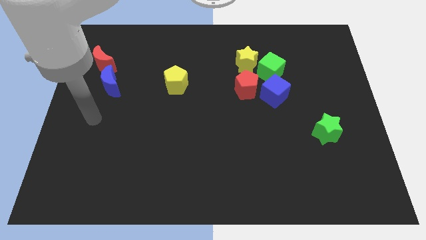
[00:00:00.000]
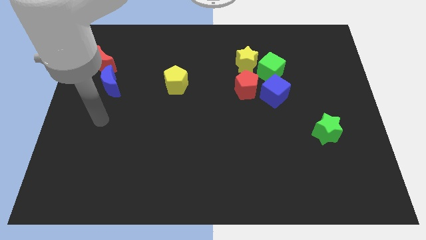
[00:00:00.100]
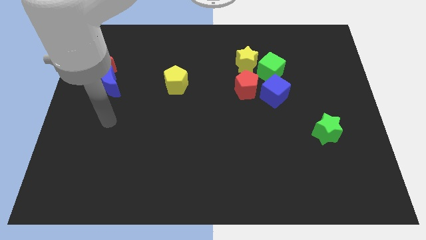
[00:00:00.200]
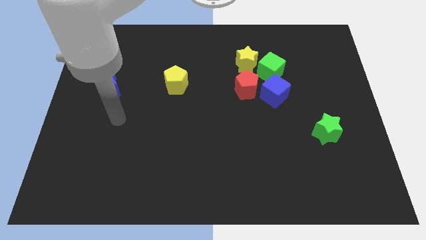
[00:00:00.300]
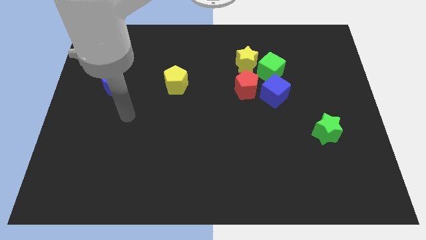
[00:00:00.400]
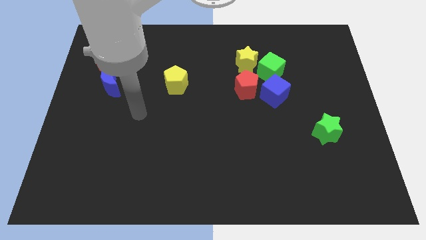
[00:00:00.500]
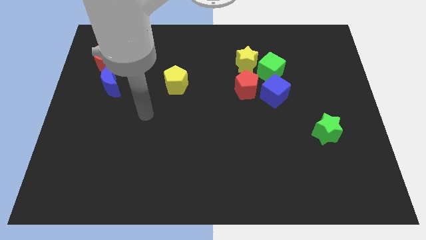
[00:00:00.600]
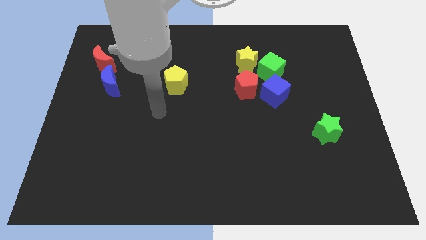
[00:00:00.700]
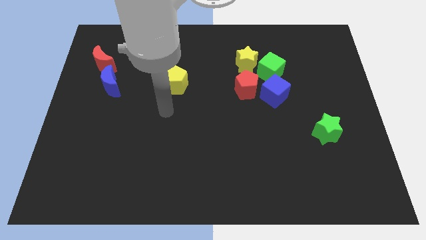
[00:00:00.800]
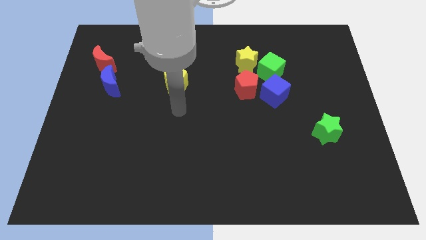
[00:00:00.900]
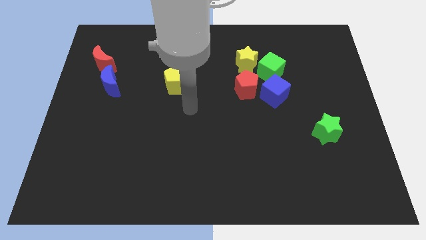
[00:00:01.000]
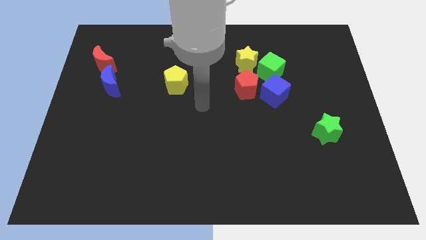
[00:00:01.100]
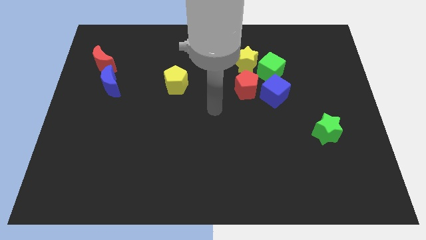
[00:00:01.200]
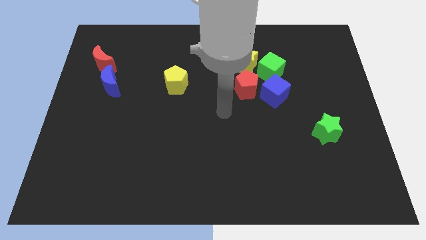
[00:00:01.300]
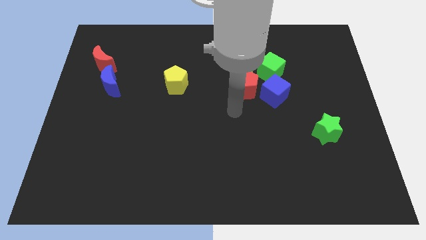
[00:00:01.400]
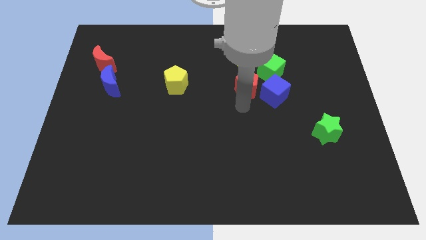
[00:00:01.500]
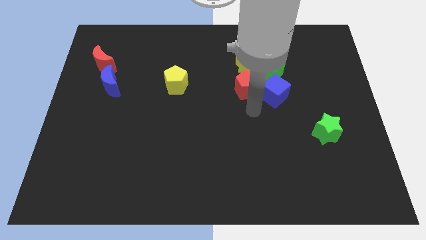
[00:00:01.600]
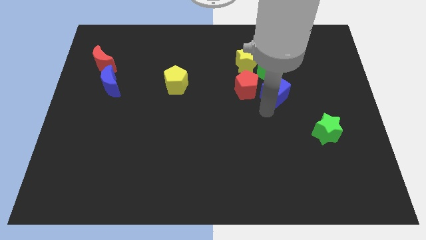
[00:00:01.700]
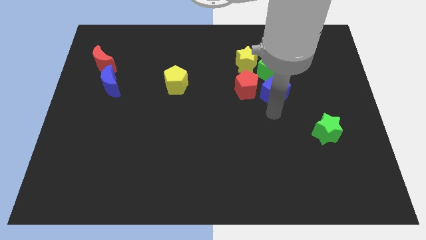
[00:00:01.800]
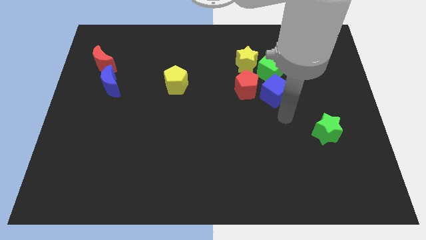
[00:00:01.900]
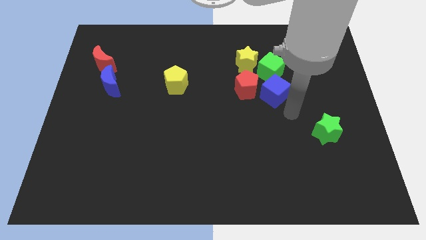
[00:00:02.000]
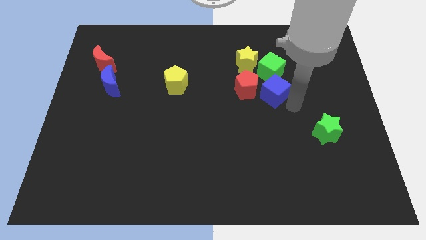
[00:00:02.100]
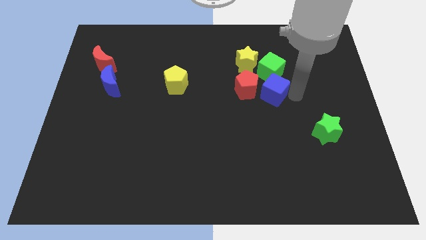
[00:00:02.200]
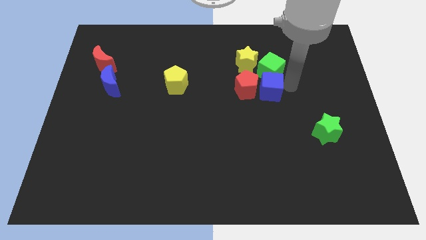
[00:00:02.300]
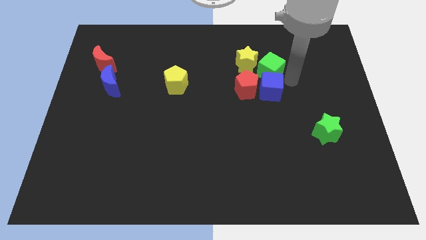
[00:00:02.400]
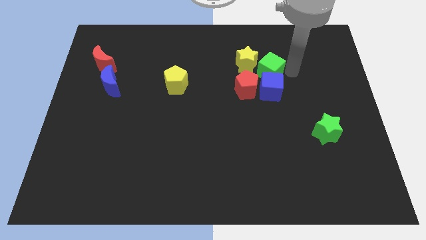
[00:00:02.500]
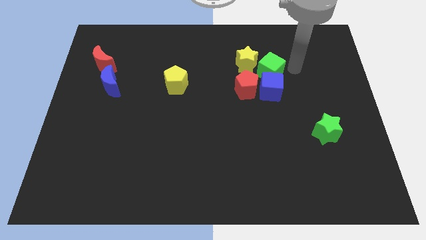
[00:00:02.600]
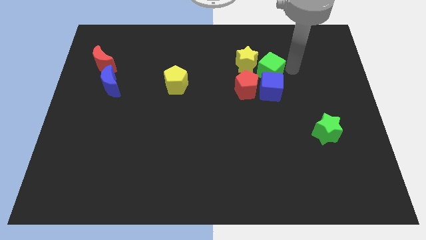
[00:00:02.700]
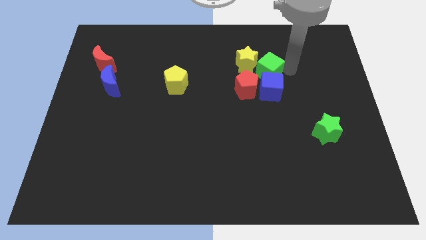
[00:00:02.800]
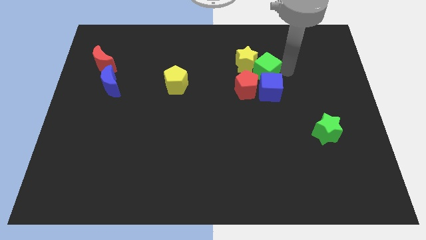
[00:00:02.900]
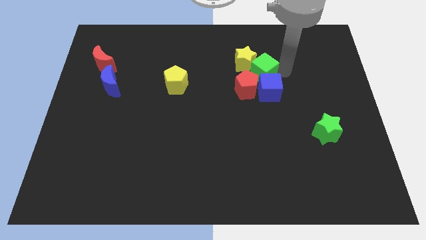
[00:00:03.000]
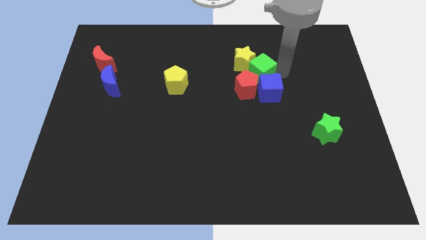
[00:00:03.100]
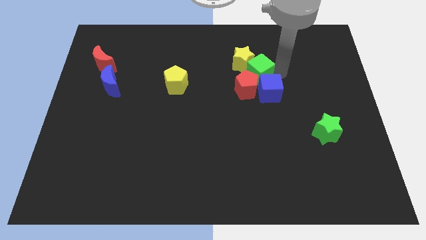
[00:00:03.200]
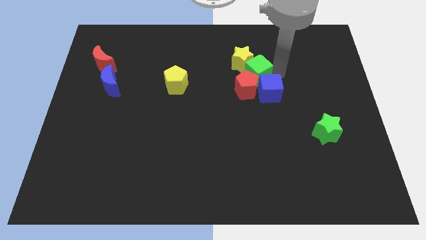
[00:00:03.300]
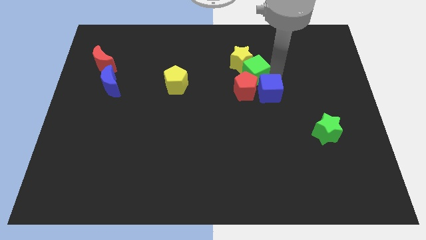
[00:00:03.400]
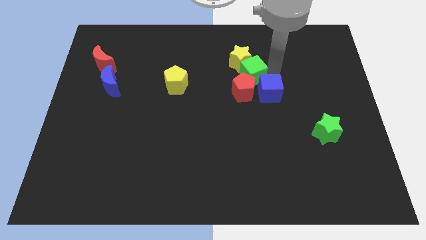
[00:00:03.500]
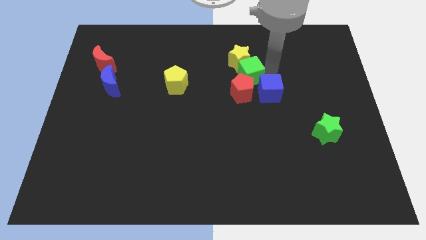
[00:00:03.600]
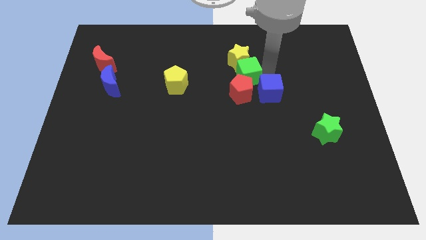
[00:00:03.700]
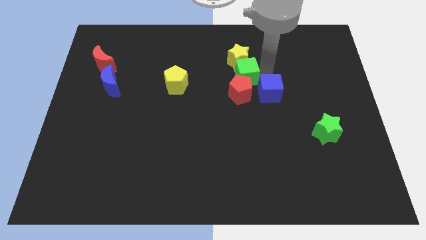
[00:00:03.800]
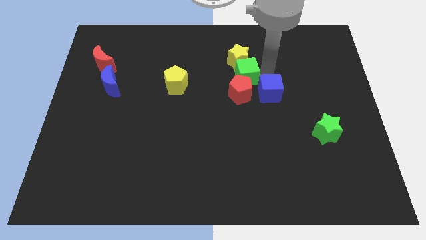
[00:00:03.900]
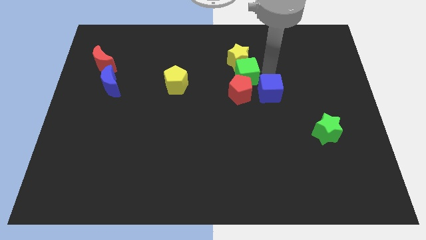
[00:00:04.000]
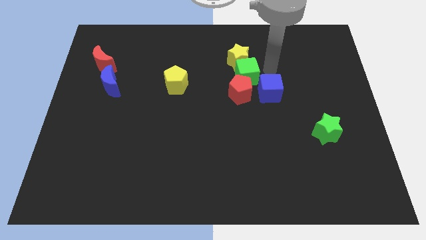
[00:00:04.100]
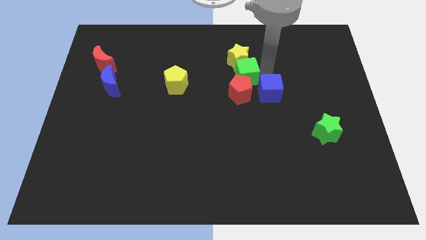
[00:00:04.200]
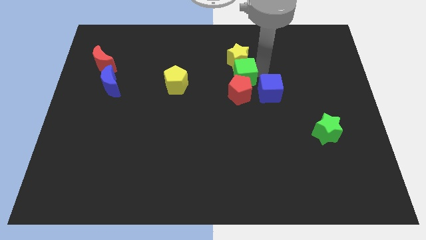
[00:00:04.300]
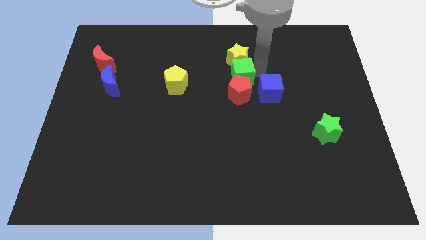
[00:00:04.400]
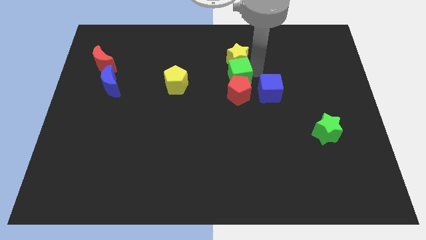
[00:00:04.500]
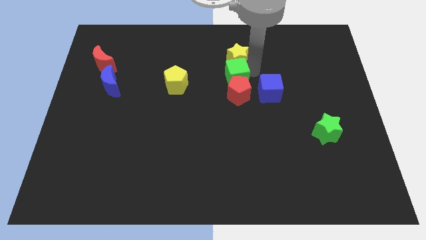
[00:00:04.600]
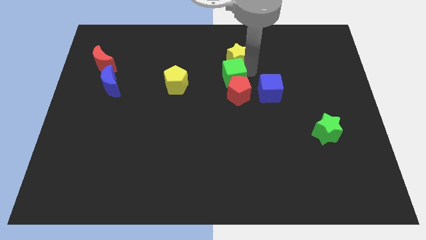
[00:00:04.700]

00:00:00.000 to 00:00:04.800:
move the green cube a little bit downwards and left diagonally

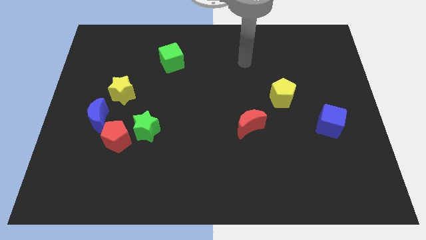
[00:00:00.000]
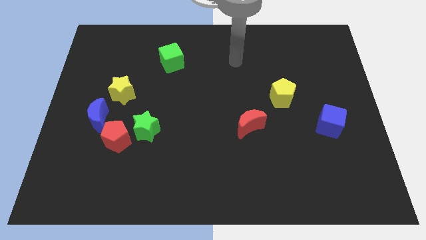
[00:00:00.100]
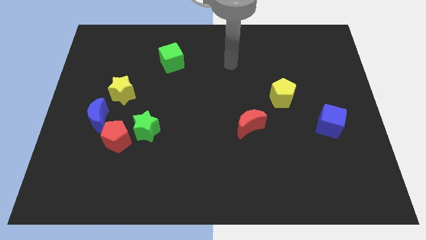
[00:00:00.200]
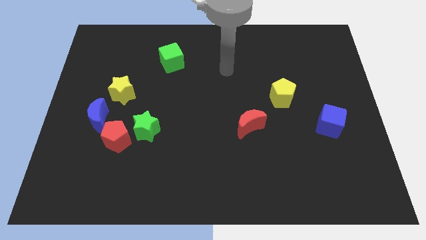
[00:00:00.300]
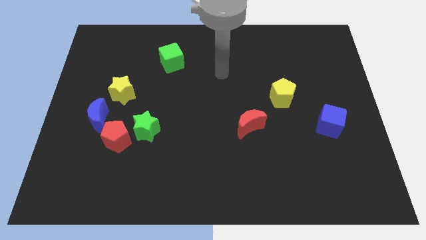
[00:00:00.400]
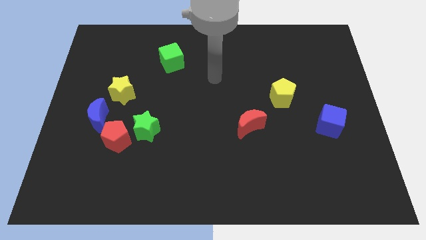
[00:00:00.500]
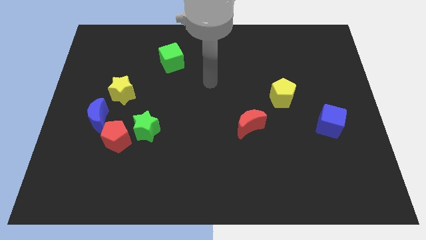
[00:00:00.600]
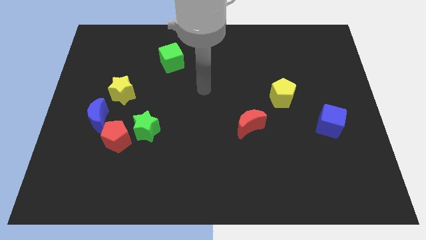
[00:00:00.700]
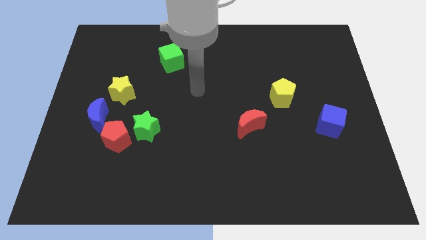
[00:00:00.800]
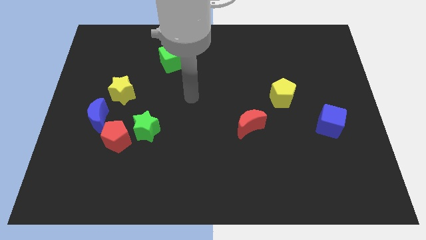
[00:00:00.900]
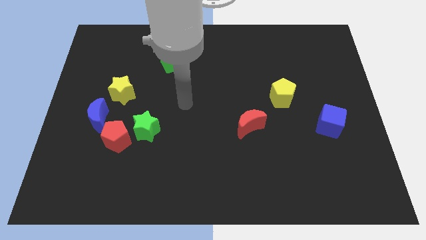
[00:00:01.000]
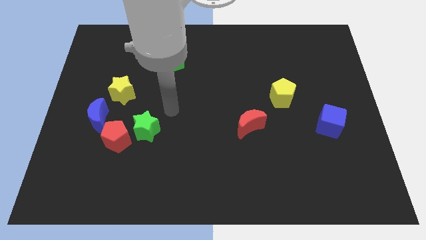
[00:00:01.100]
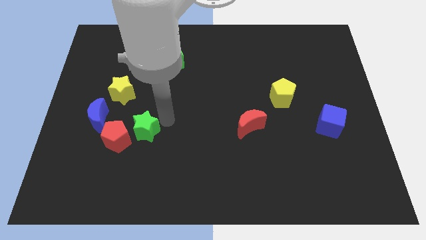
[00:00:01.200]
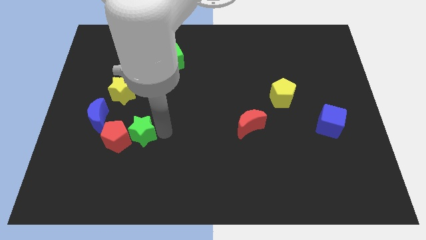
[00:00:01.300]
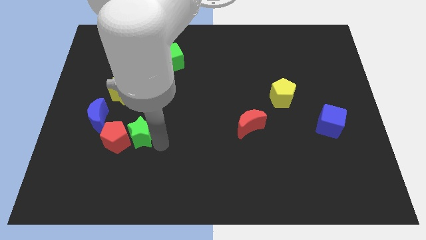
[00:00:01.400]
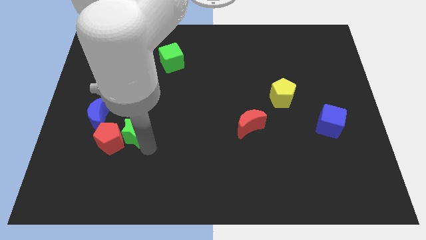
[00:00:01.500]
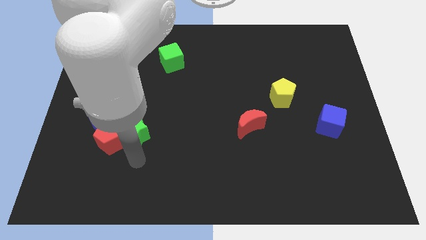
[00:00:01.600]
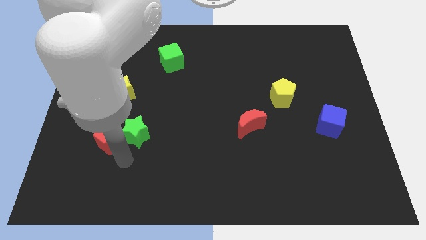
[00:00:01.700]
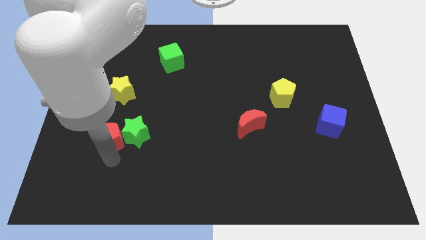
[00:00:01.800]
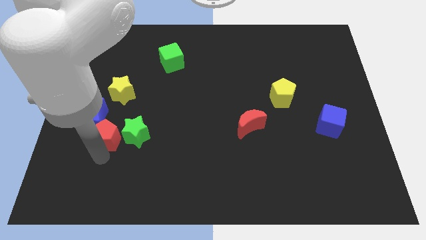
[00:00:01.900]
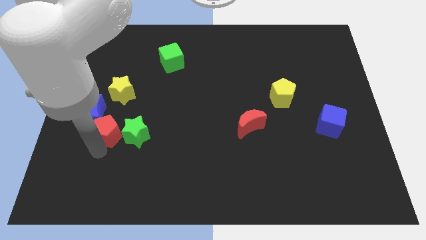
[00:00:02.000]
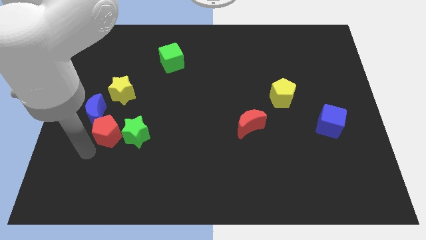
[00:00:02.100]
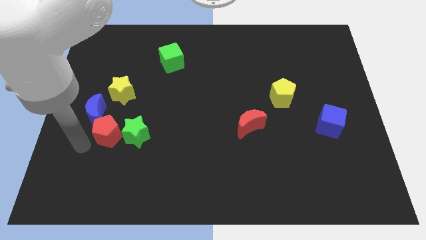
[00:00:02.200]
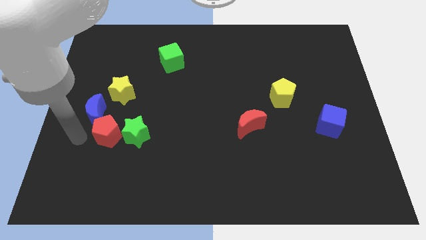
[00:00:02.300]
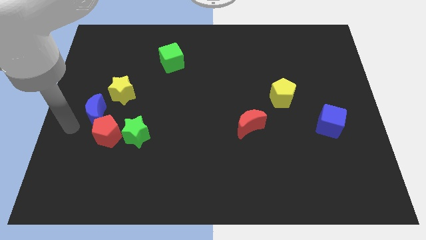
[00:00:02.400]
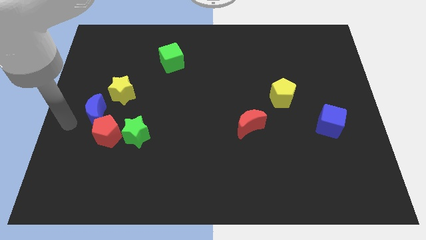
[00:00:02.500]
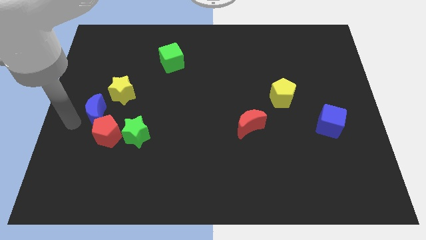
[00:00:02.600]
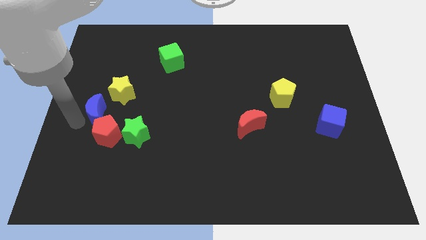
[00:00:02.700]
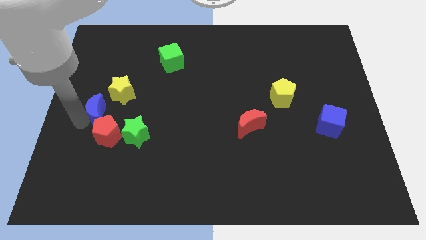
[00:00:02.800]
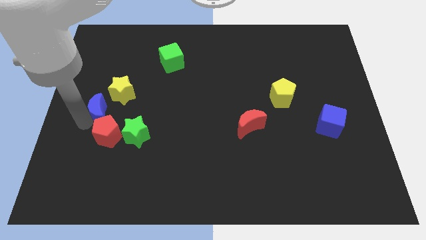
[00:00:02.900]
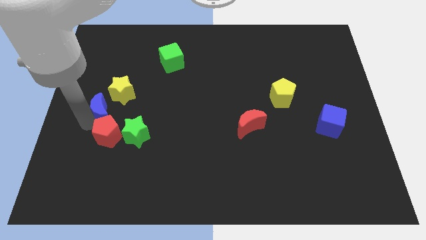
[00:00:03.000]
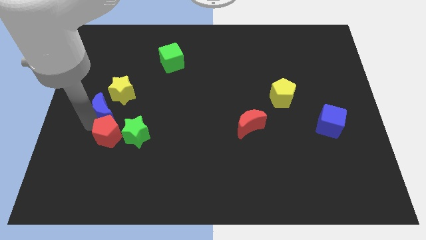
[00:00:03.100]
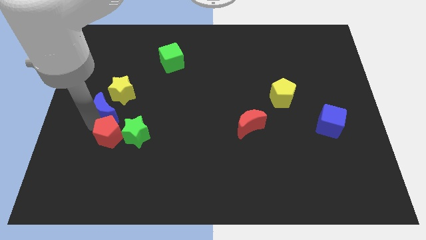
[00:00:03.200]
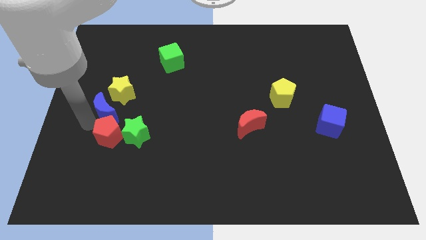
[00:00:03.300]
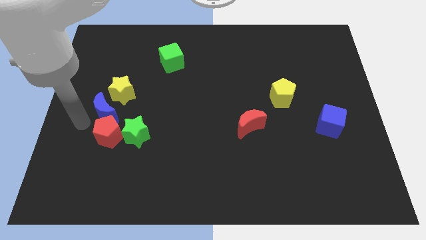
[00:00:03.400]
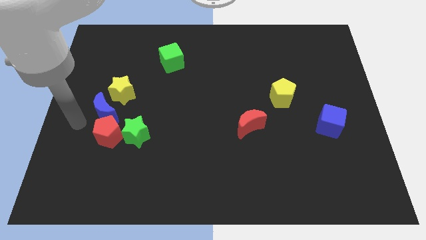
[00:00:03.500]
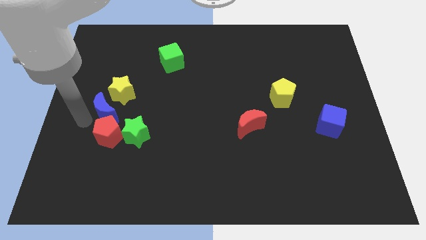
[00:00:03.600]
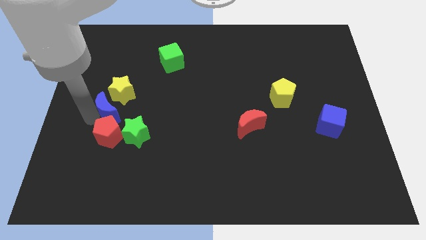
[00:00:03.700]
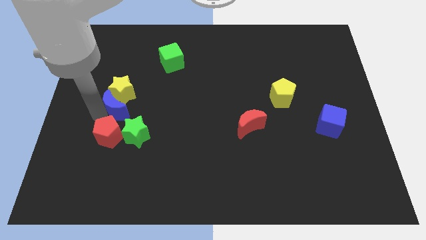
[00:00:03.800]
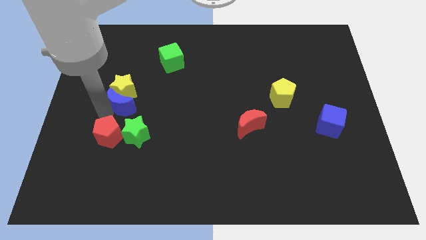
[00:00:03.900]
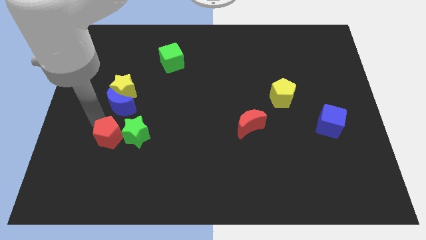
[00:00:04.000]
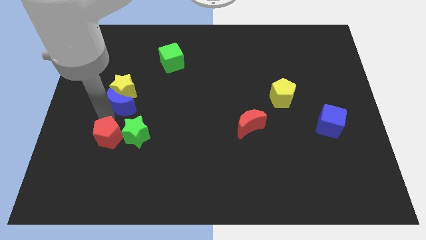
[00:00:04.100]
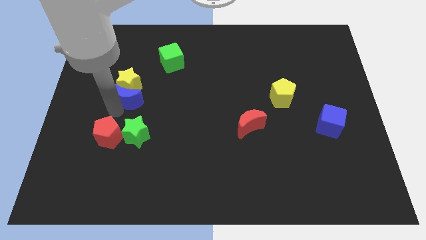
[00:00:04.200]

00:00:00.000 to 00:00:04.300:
slightly slide the blue moon up and then right
